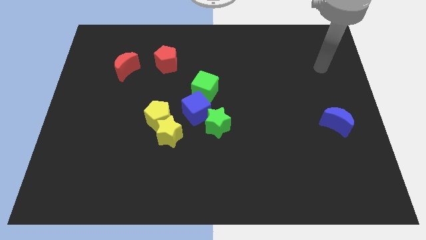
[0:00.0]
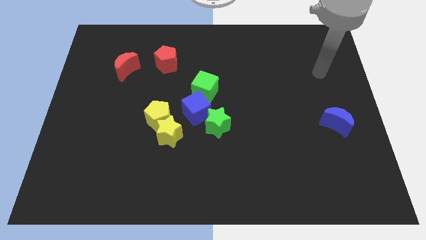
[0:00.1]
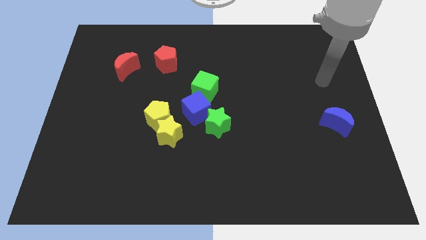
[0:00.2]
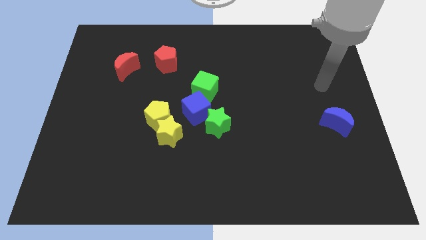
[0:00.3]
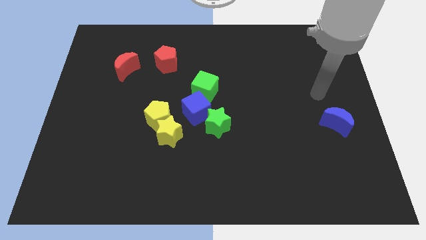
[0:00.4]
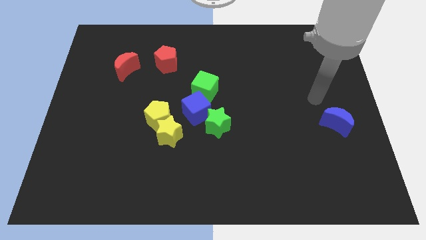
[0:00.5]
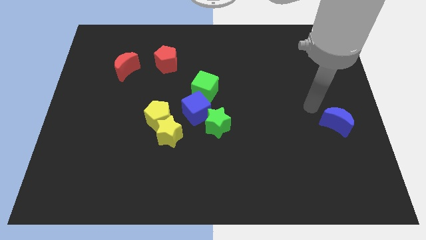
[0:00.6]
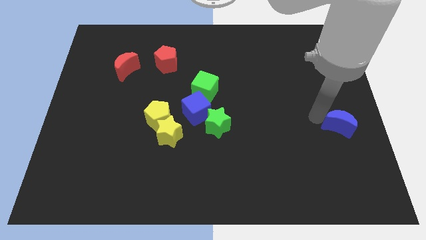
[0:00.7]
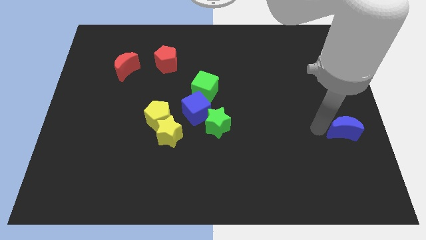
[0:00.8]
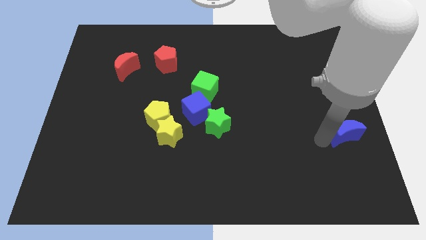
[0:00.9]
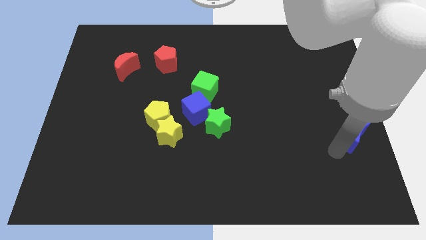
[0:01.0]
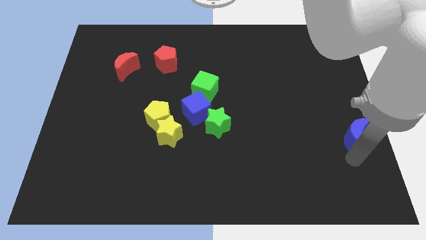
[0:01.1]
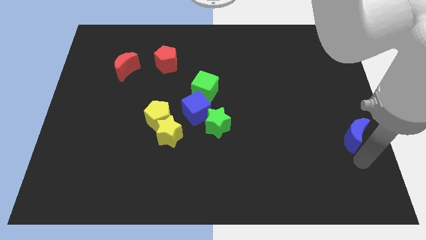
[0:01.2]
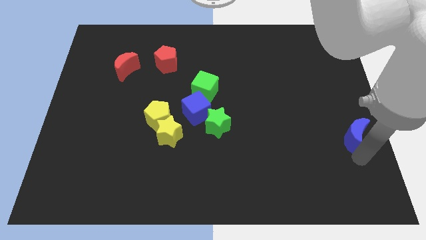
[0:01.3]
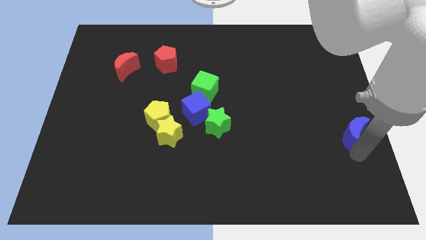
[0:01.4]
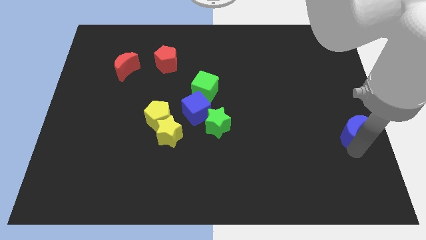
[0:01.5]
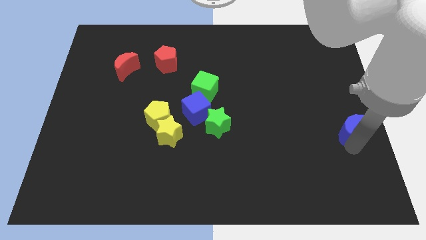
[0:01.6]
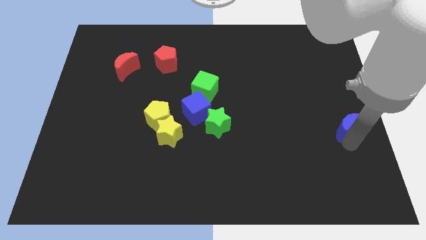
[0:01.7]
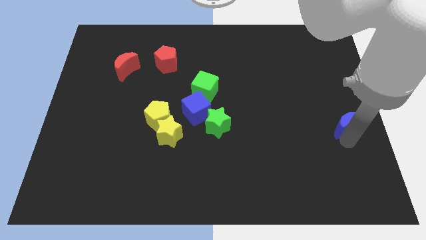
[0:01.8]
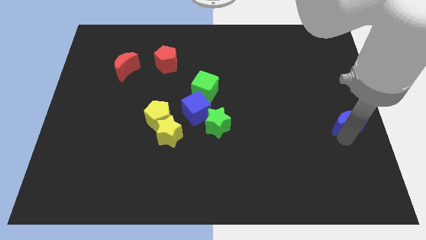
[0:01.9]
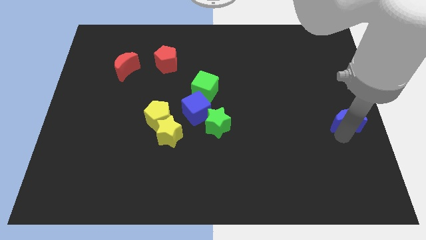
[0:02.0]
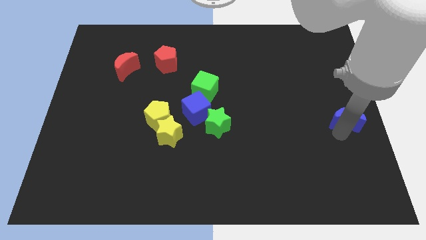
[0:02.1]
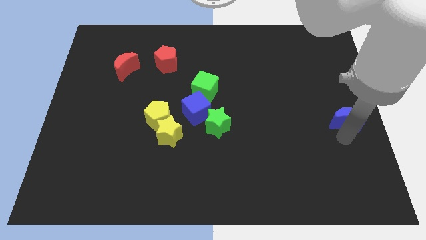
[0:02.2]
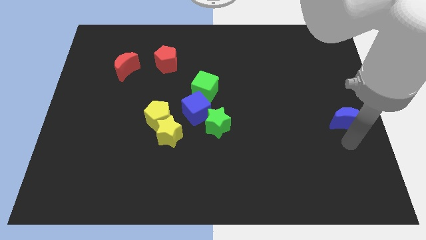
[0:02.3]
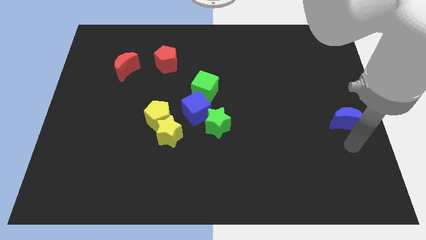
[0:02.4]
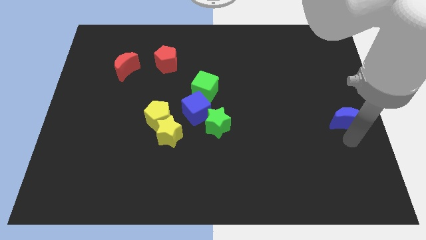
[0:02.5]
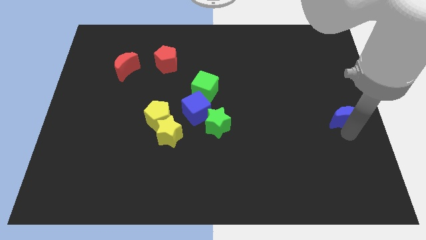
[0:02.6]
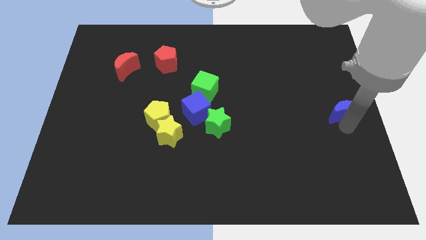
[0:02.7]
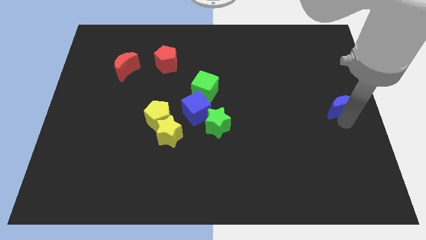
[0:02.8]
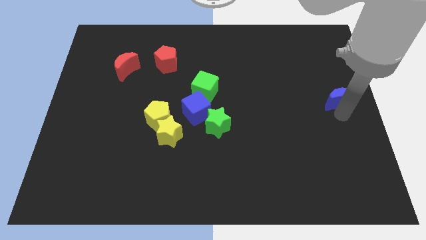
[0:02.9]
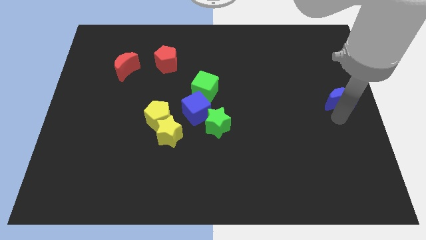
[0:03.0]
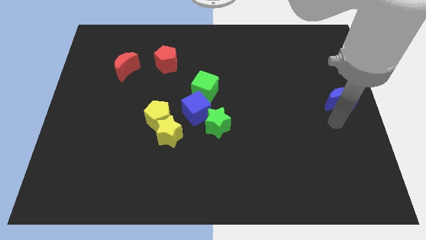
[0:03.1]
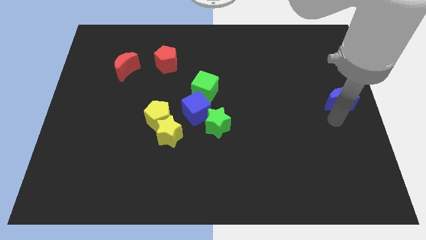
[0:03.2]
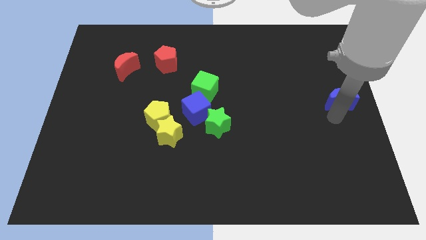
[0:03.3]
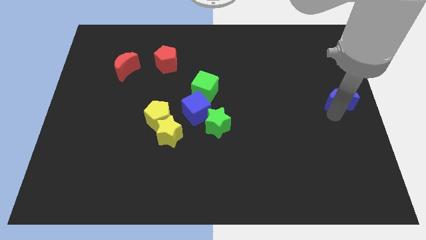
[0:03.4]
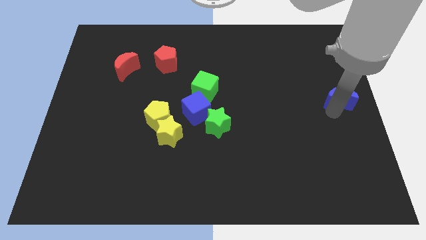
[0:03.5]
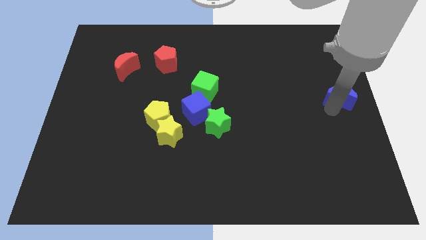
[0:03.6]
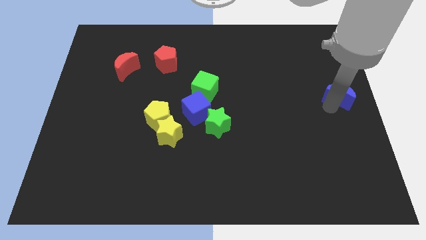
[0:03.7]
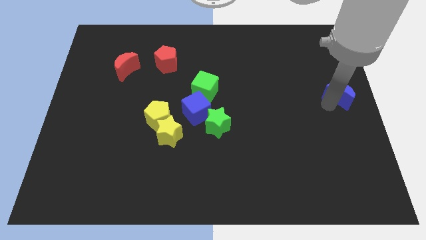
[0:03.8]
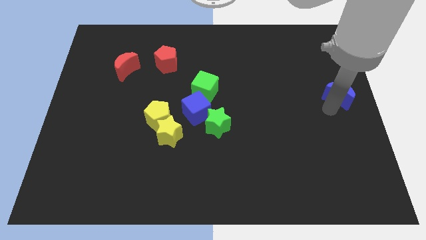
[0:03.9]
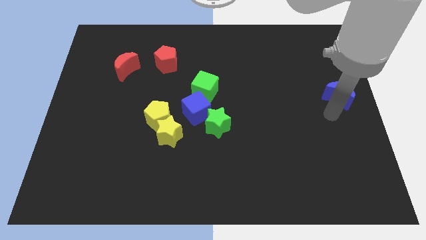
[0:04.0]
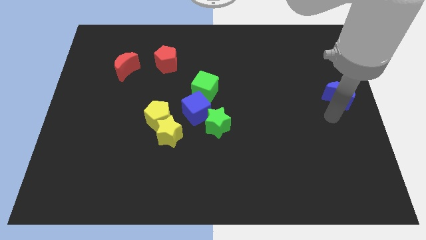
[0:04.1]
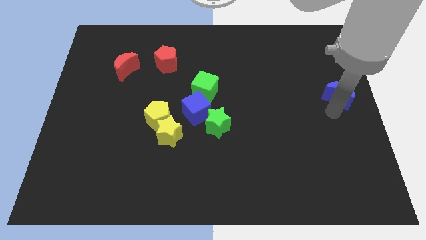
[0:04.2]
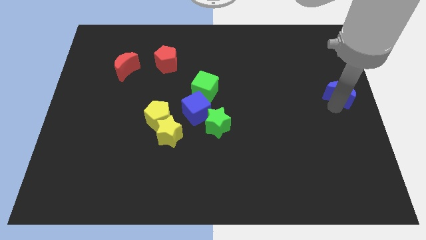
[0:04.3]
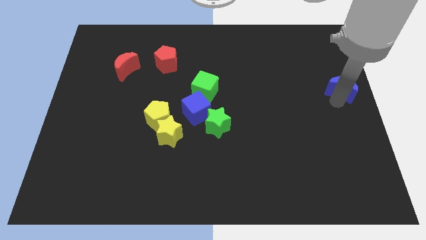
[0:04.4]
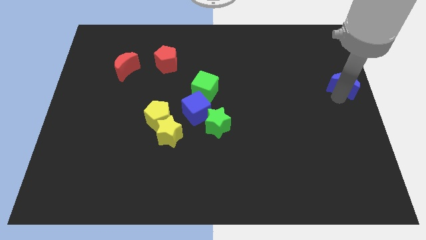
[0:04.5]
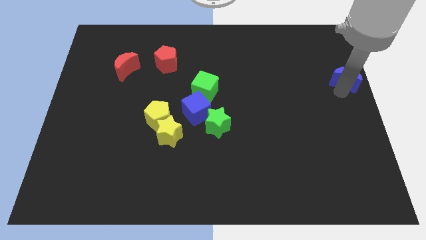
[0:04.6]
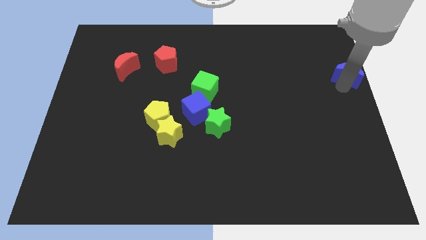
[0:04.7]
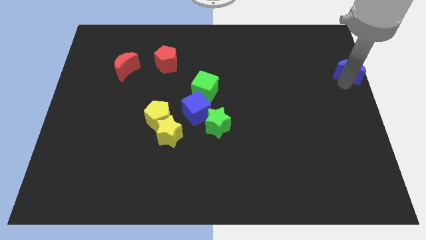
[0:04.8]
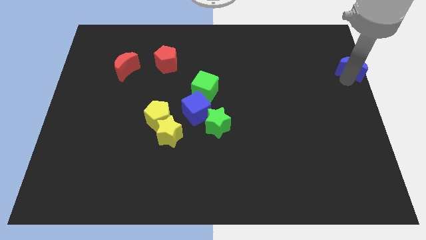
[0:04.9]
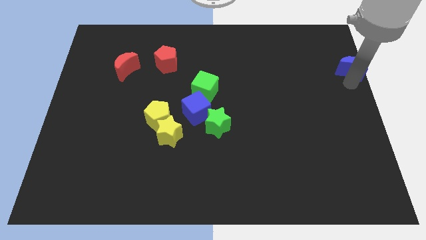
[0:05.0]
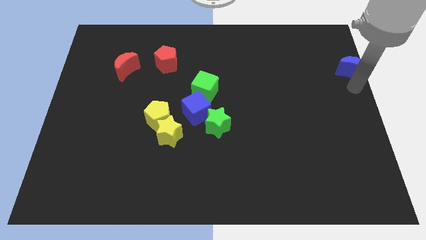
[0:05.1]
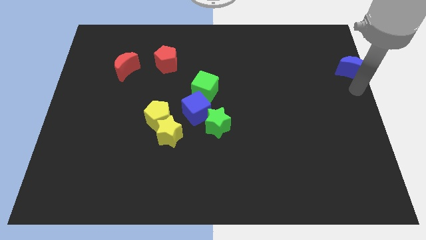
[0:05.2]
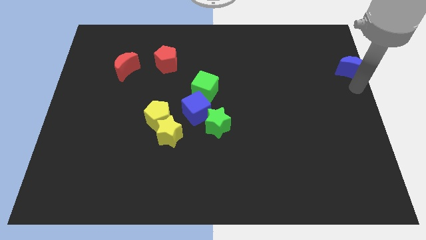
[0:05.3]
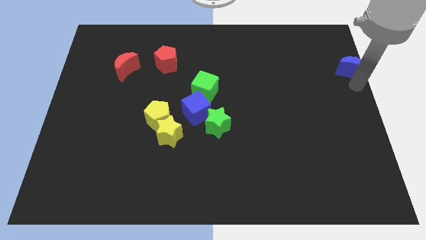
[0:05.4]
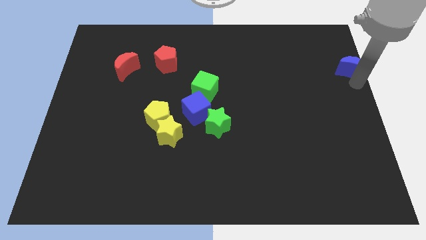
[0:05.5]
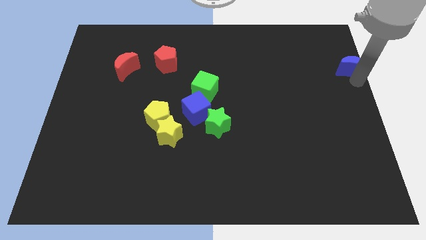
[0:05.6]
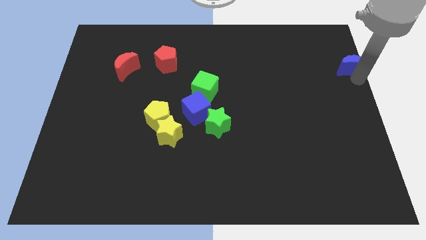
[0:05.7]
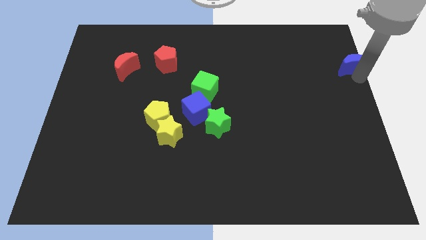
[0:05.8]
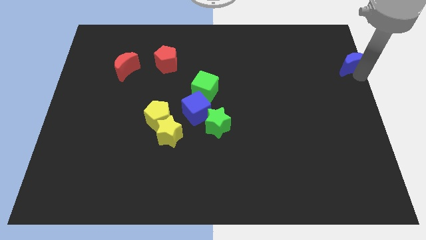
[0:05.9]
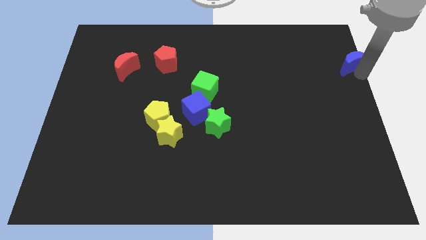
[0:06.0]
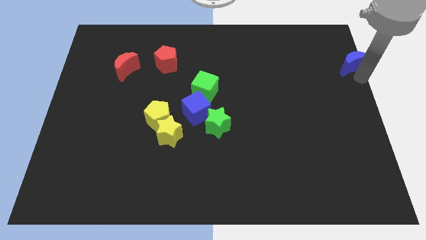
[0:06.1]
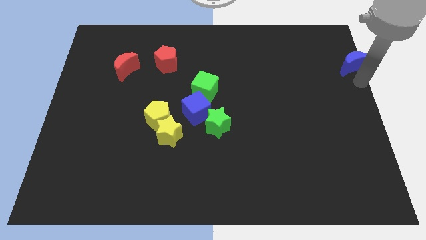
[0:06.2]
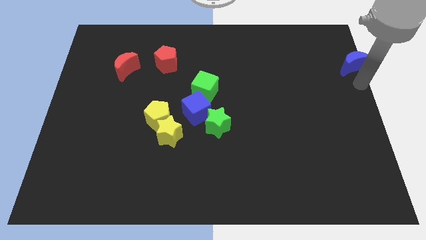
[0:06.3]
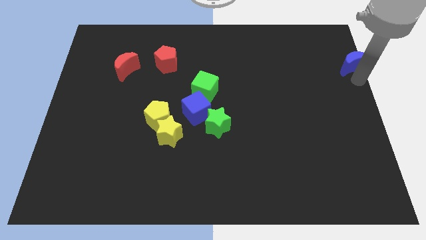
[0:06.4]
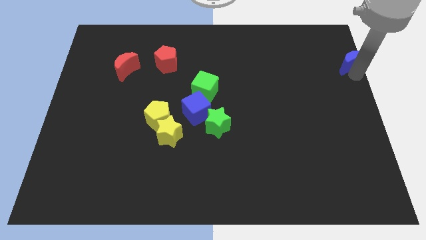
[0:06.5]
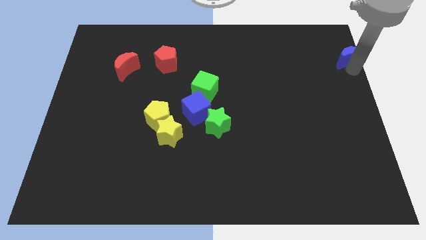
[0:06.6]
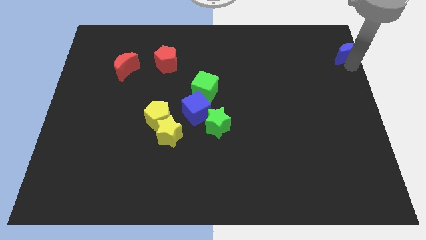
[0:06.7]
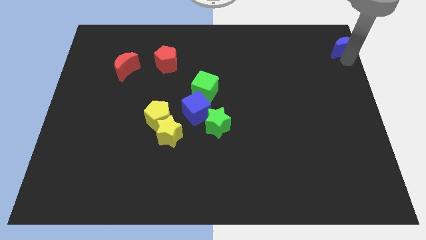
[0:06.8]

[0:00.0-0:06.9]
move the blue moon to the upper right corner
